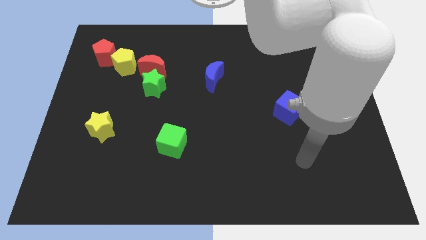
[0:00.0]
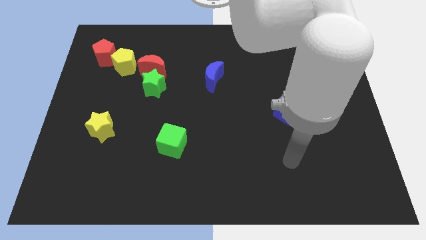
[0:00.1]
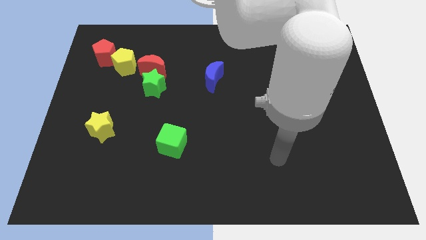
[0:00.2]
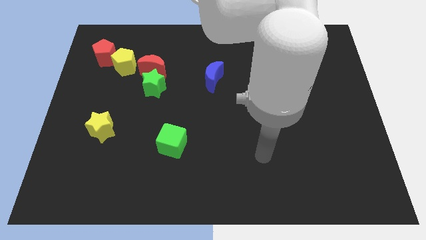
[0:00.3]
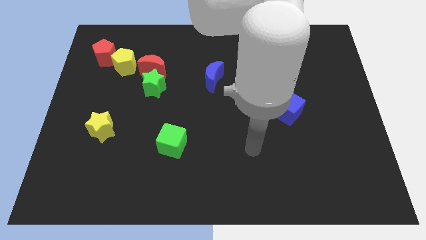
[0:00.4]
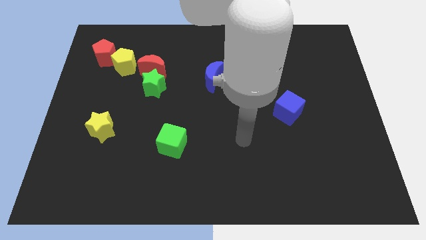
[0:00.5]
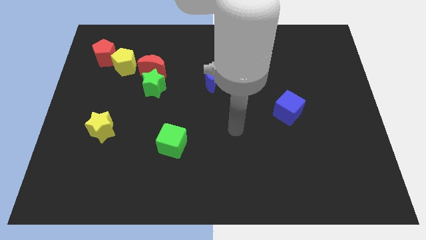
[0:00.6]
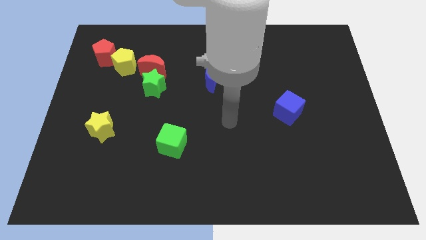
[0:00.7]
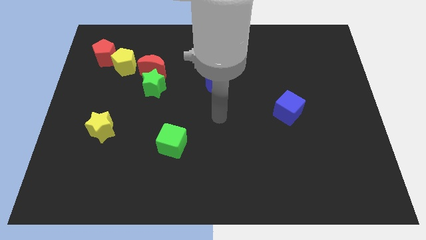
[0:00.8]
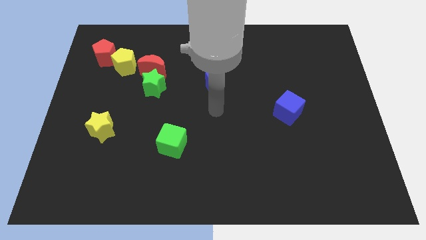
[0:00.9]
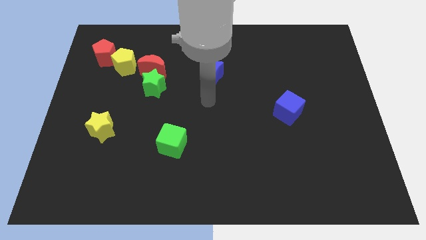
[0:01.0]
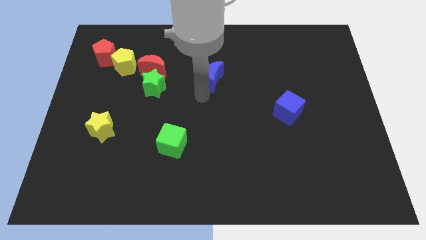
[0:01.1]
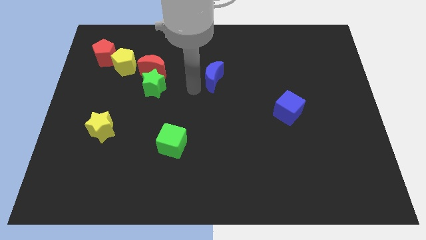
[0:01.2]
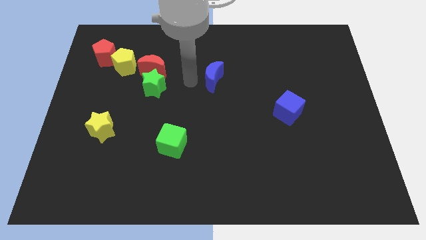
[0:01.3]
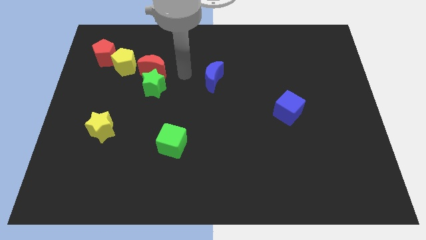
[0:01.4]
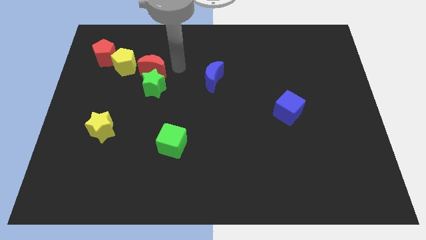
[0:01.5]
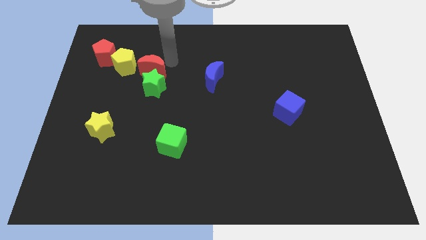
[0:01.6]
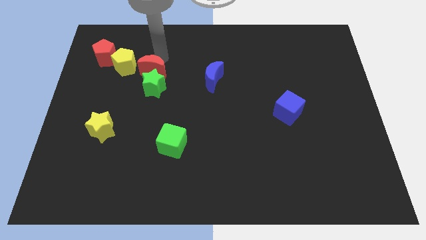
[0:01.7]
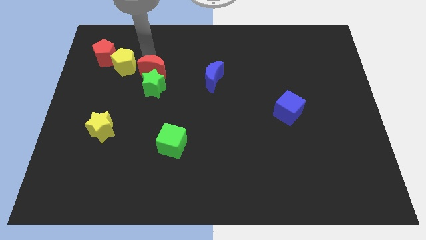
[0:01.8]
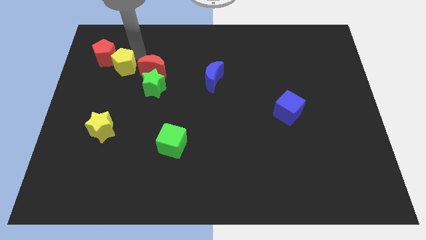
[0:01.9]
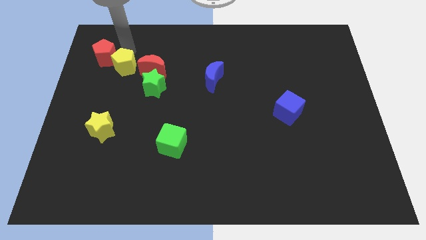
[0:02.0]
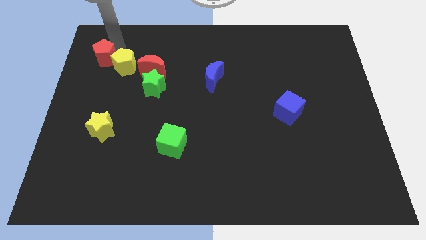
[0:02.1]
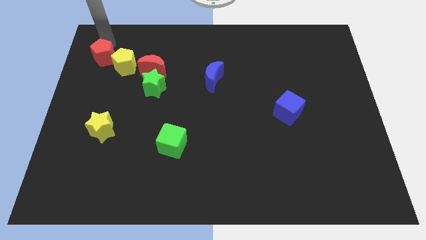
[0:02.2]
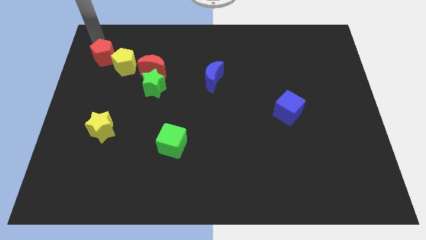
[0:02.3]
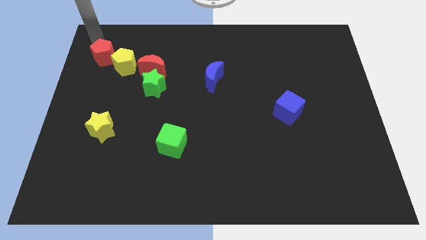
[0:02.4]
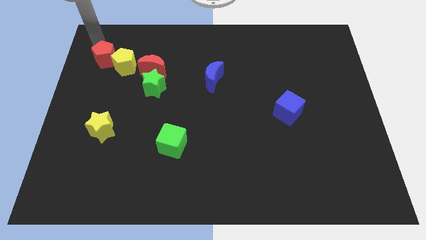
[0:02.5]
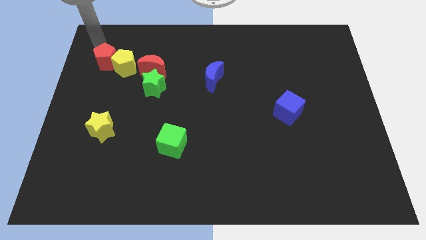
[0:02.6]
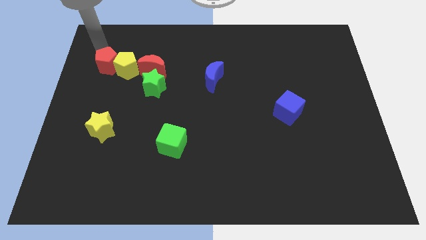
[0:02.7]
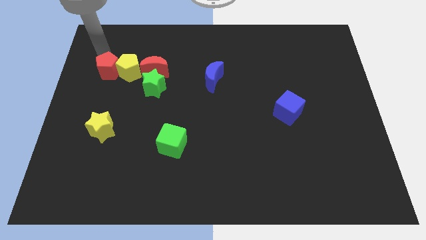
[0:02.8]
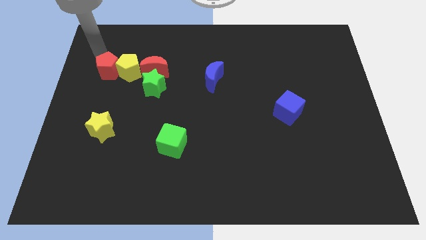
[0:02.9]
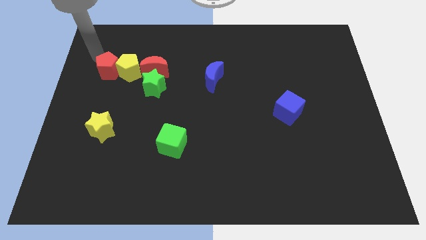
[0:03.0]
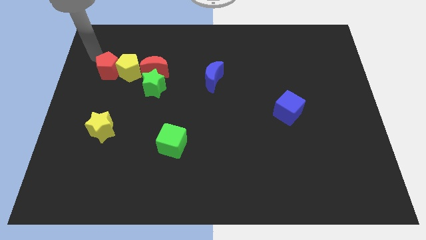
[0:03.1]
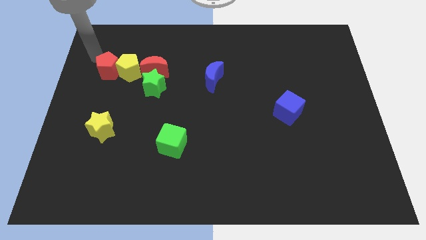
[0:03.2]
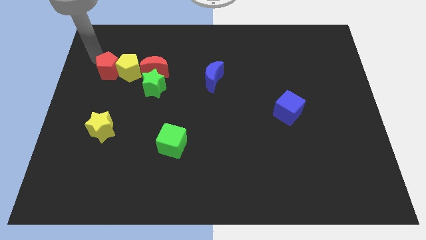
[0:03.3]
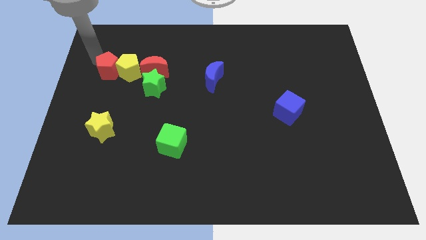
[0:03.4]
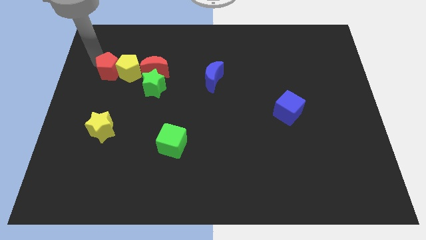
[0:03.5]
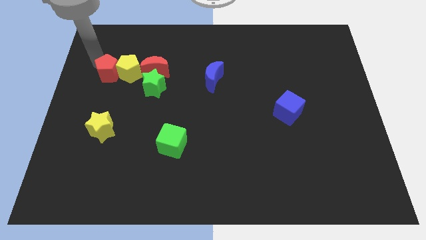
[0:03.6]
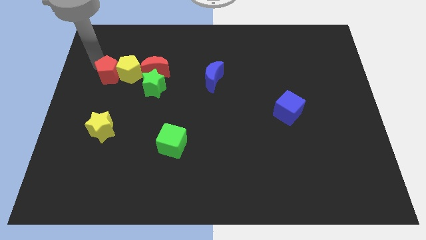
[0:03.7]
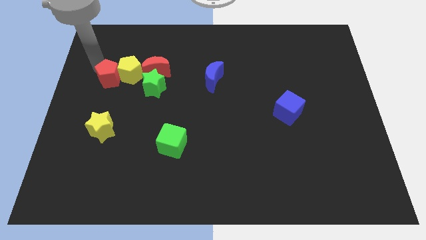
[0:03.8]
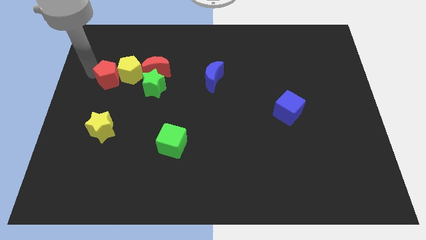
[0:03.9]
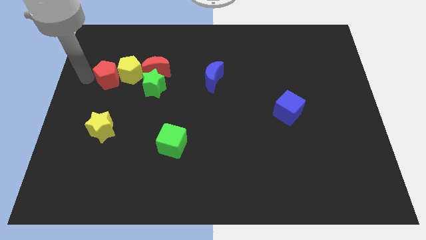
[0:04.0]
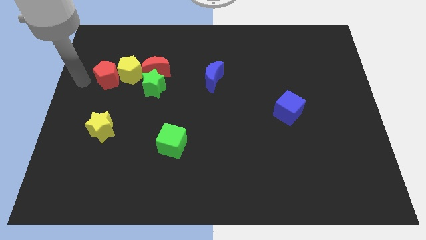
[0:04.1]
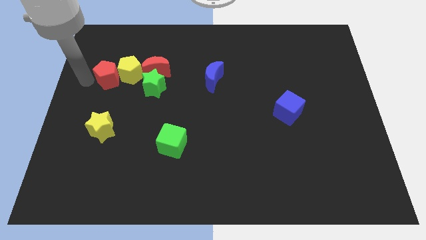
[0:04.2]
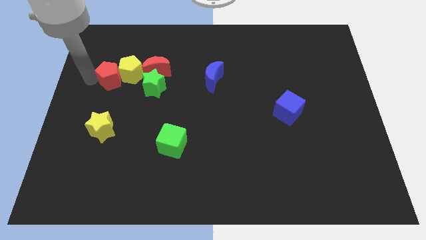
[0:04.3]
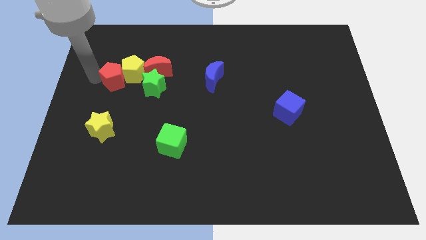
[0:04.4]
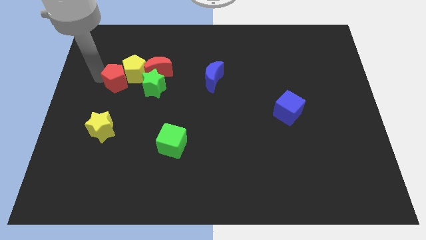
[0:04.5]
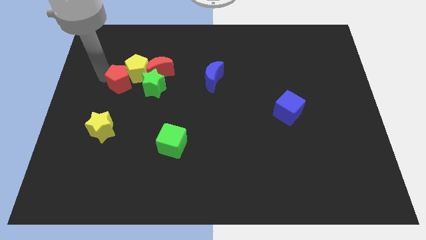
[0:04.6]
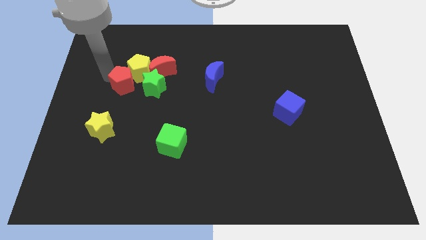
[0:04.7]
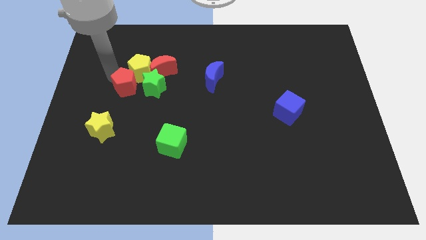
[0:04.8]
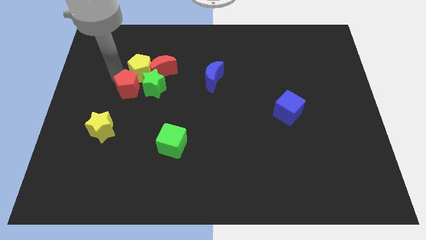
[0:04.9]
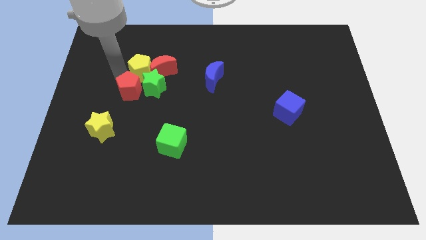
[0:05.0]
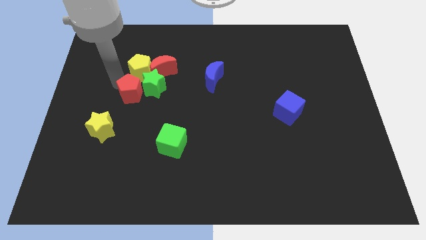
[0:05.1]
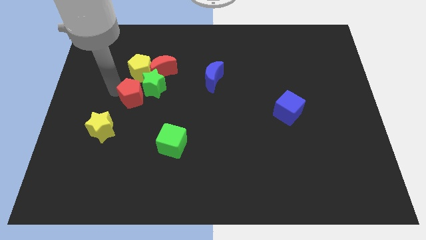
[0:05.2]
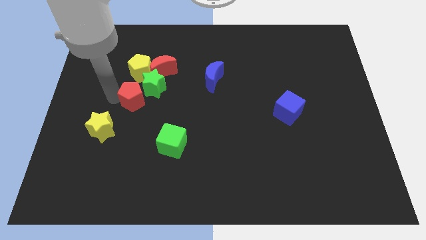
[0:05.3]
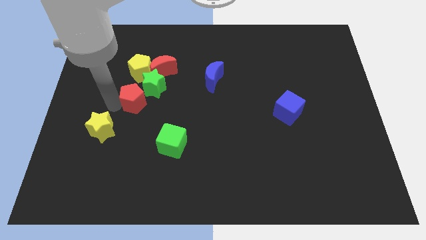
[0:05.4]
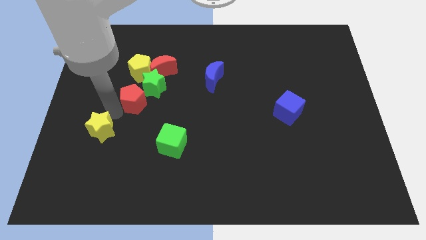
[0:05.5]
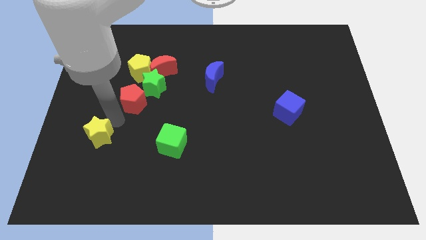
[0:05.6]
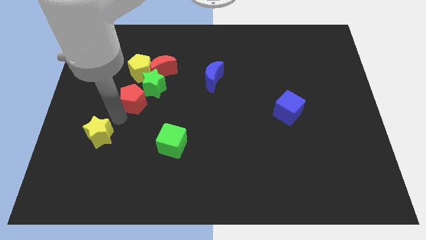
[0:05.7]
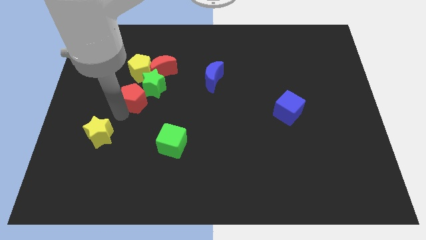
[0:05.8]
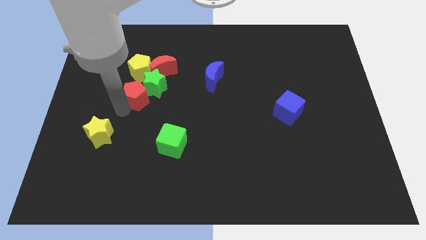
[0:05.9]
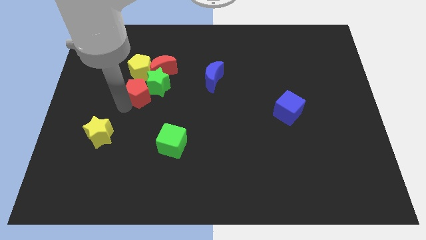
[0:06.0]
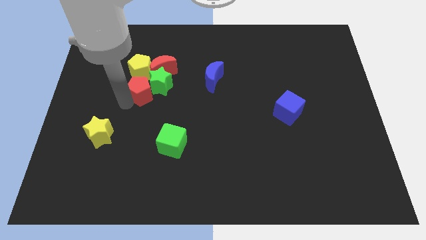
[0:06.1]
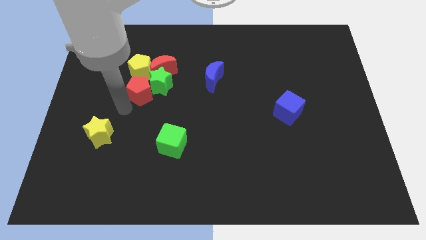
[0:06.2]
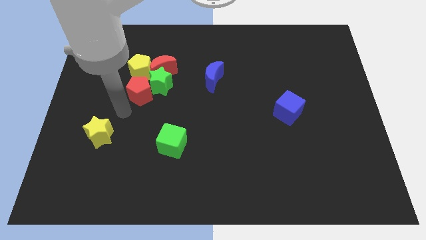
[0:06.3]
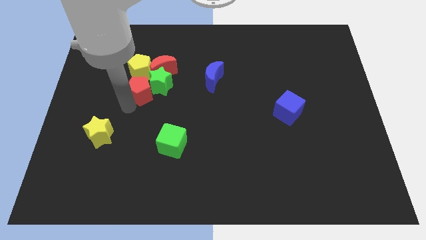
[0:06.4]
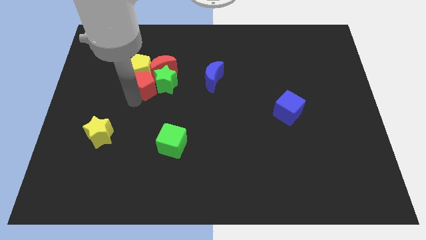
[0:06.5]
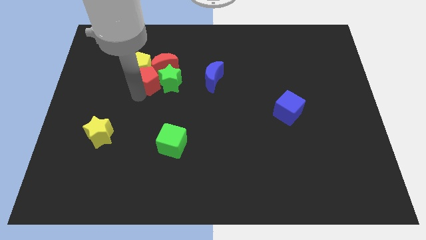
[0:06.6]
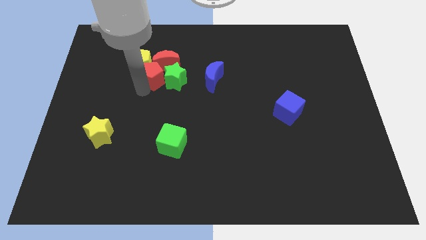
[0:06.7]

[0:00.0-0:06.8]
move the red pentagon next to the red moon

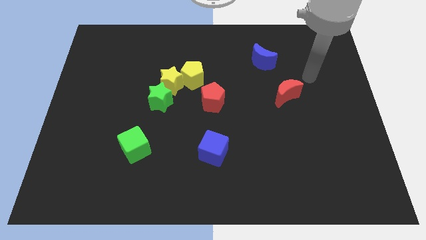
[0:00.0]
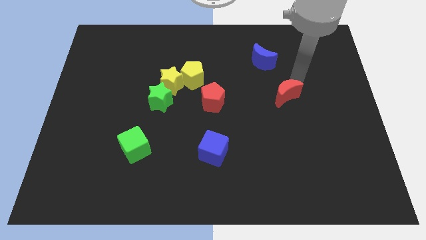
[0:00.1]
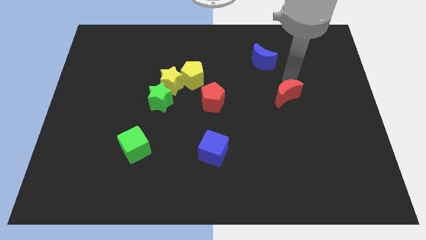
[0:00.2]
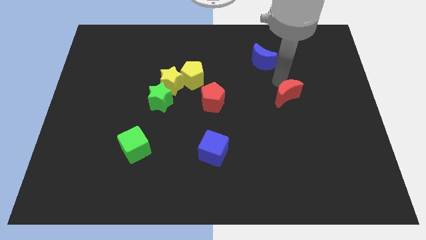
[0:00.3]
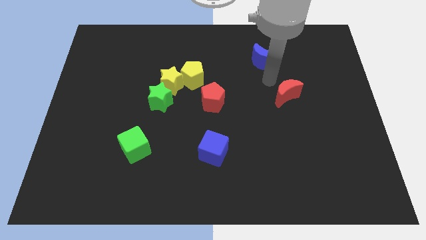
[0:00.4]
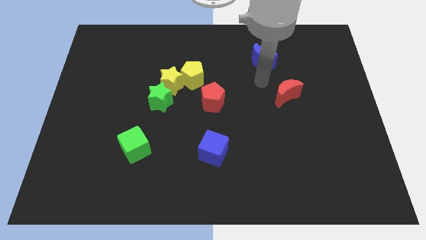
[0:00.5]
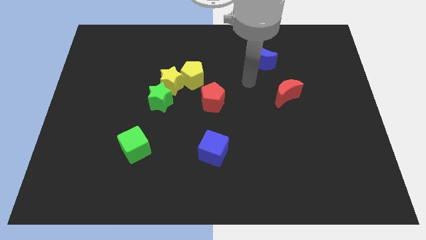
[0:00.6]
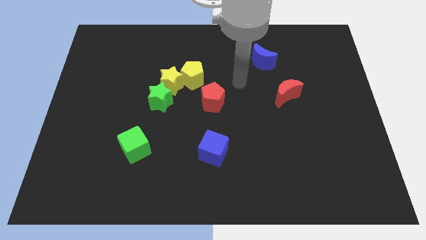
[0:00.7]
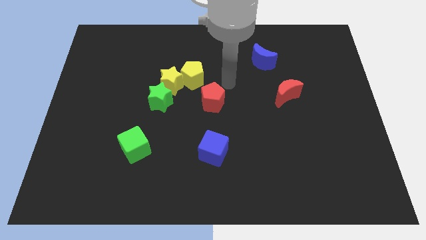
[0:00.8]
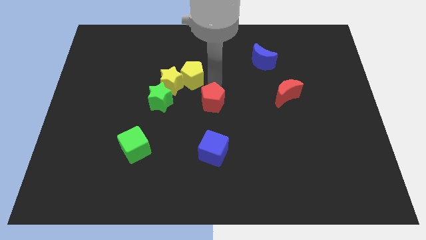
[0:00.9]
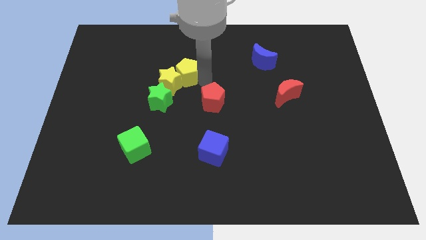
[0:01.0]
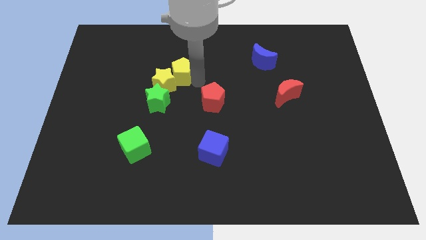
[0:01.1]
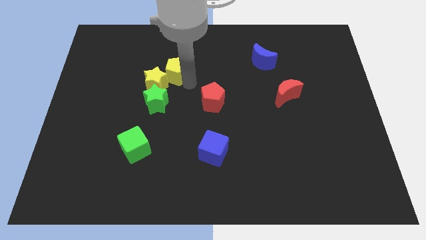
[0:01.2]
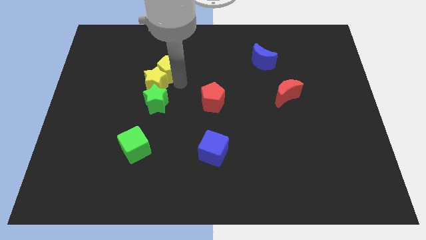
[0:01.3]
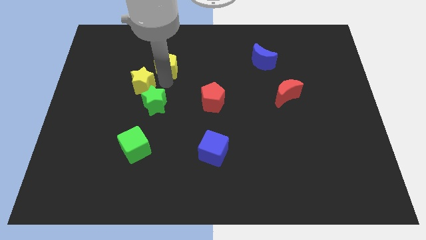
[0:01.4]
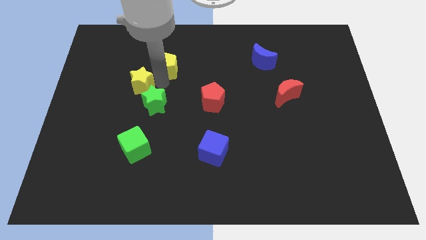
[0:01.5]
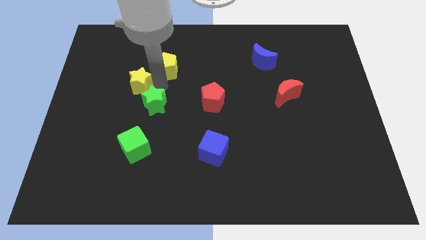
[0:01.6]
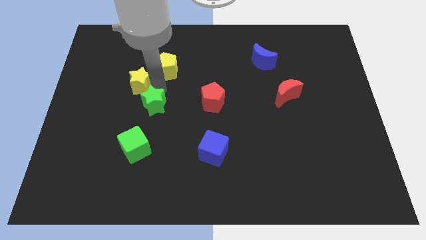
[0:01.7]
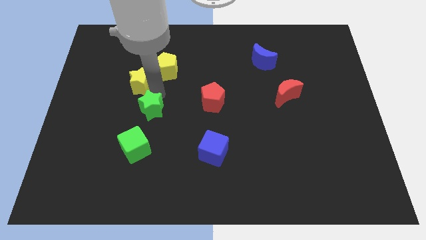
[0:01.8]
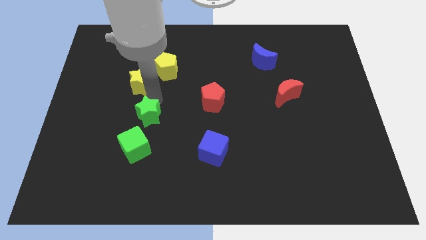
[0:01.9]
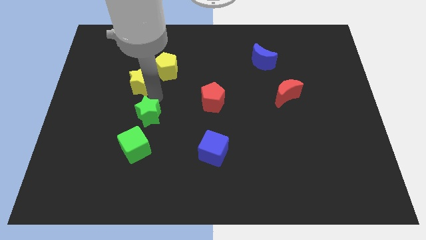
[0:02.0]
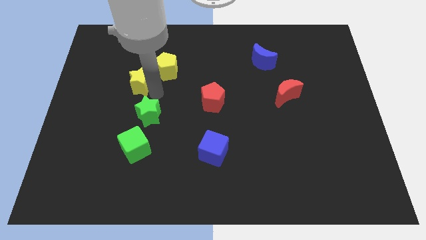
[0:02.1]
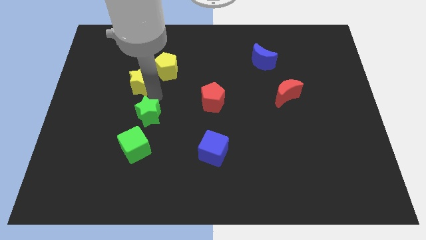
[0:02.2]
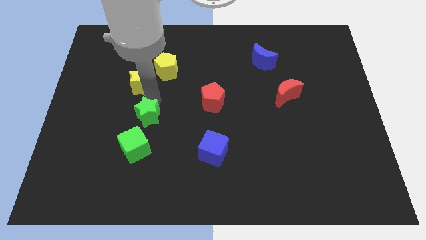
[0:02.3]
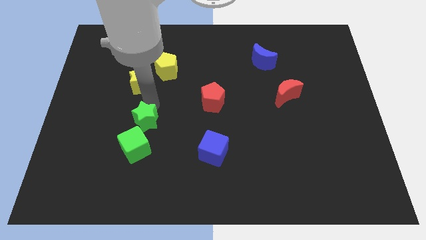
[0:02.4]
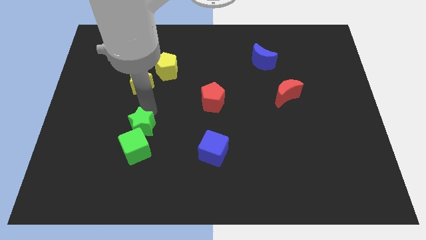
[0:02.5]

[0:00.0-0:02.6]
push the green star close to the green cube
